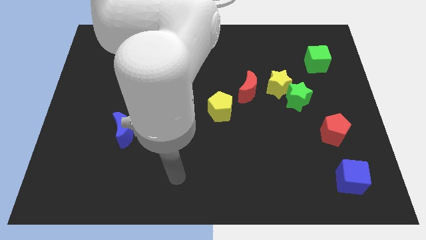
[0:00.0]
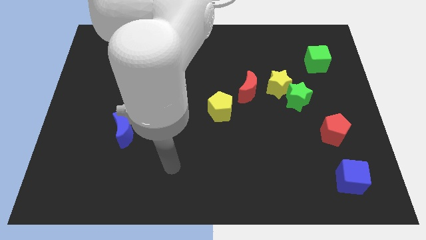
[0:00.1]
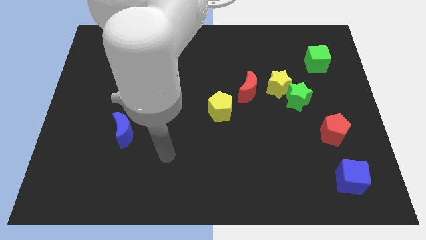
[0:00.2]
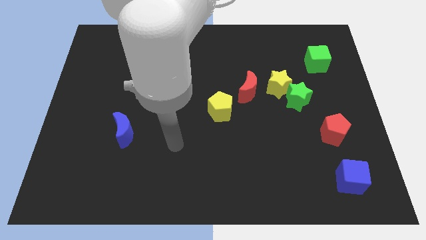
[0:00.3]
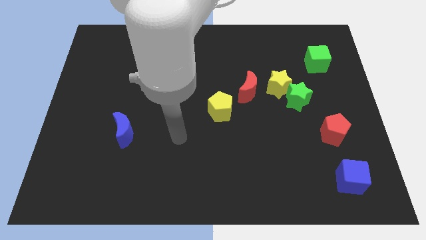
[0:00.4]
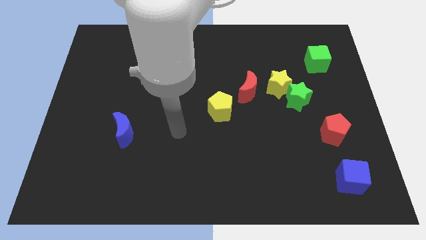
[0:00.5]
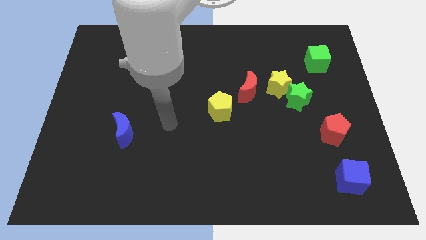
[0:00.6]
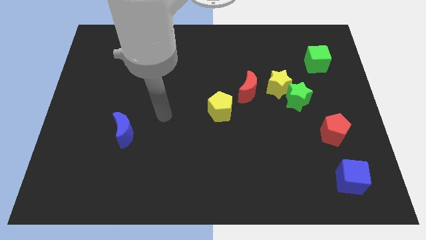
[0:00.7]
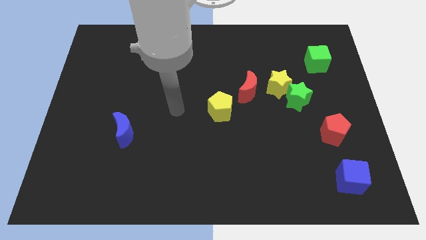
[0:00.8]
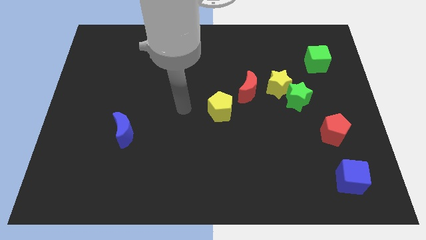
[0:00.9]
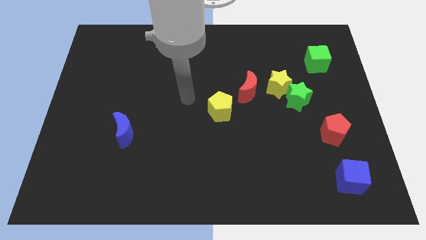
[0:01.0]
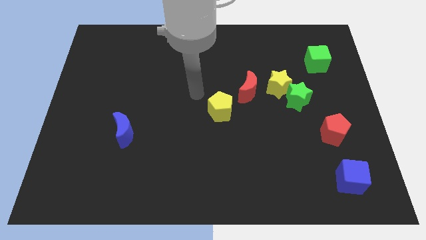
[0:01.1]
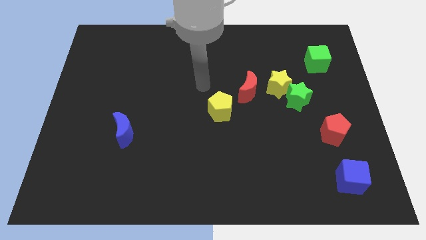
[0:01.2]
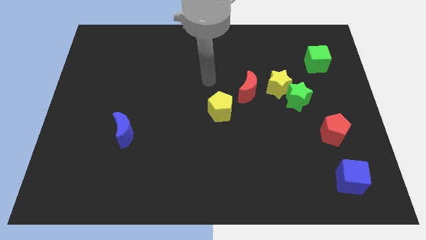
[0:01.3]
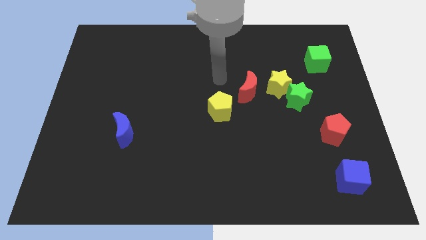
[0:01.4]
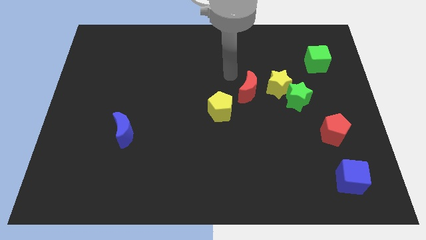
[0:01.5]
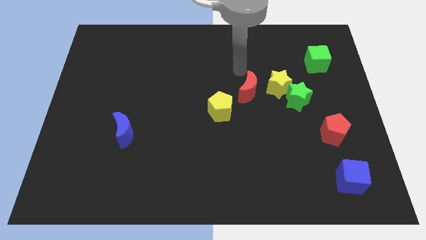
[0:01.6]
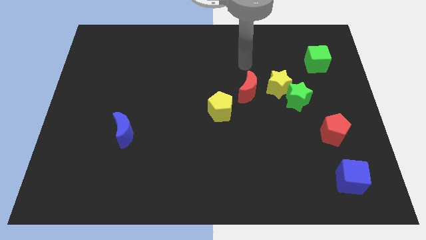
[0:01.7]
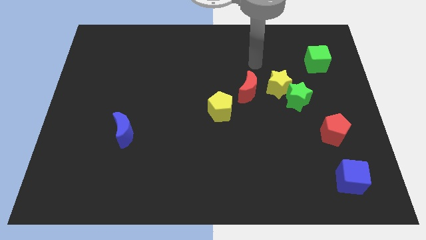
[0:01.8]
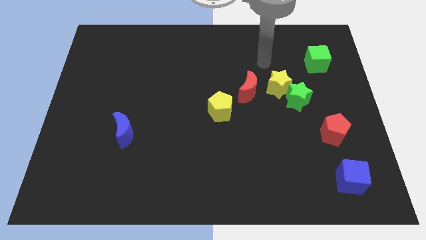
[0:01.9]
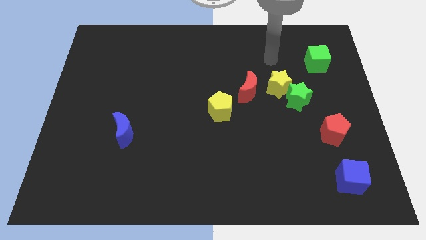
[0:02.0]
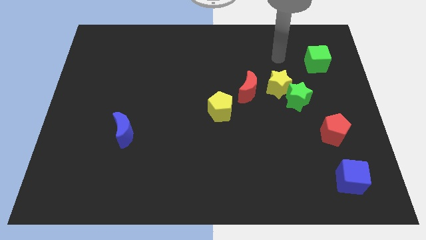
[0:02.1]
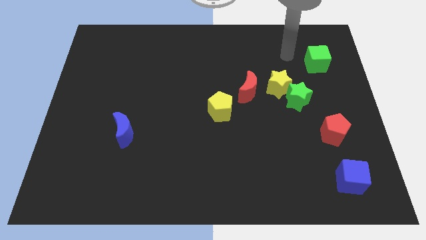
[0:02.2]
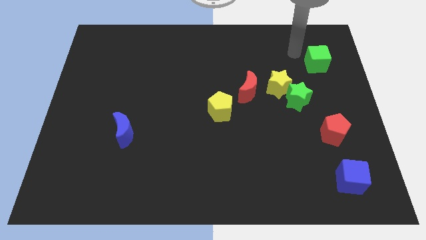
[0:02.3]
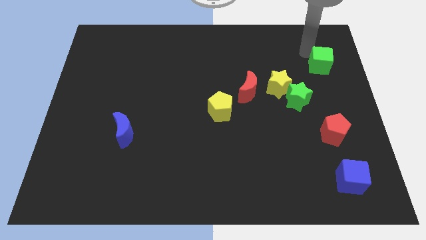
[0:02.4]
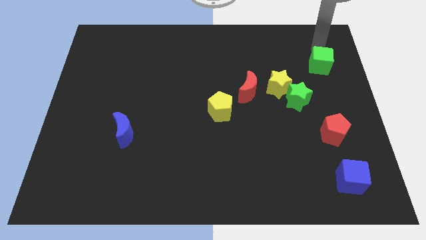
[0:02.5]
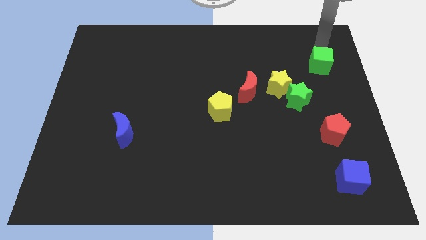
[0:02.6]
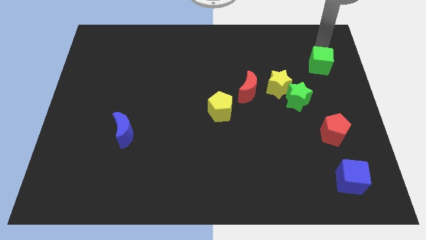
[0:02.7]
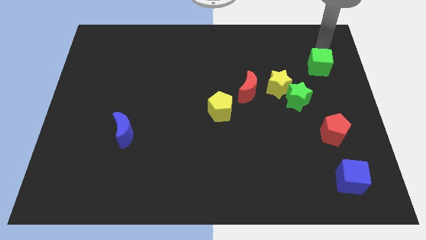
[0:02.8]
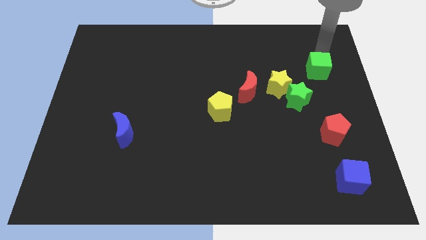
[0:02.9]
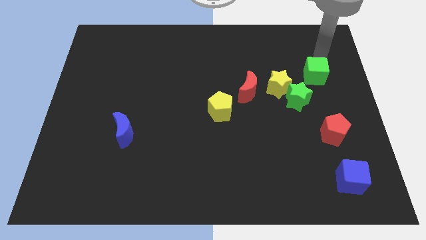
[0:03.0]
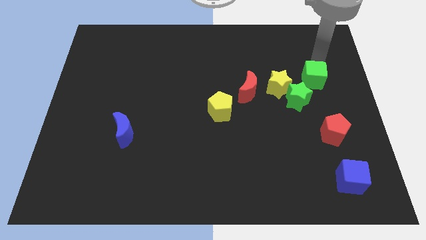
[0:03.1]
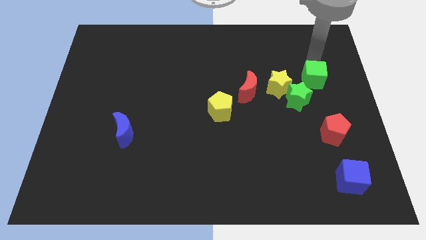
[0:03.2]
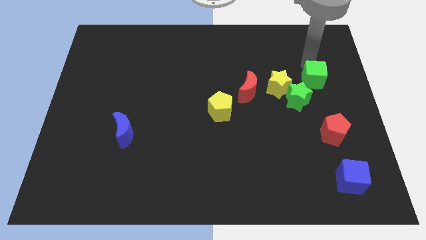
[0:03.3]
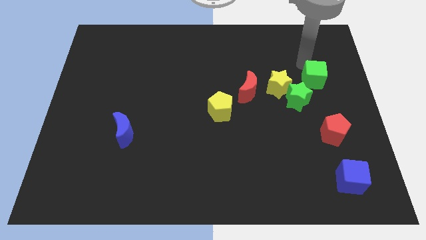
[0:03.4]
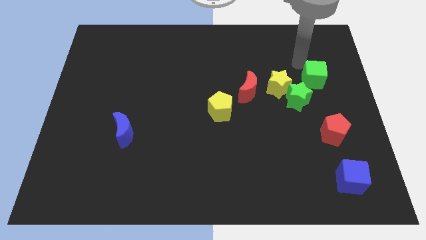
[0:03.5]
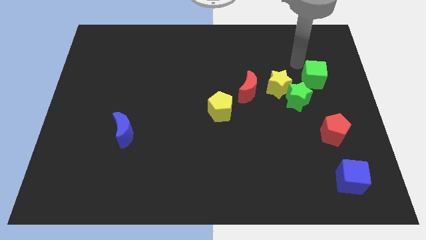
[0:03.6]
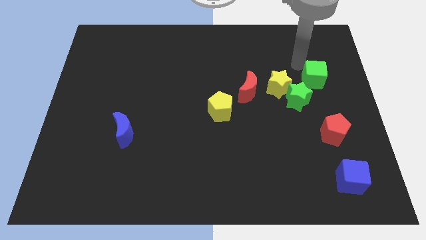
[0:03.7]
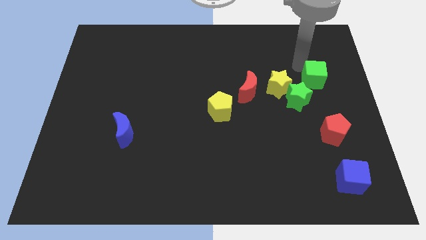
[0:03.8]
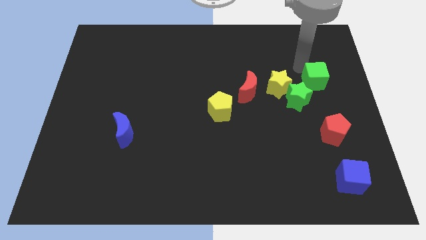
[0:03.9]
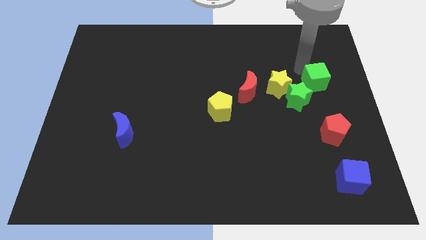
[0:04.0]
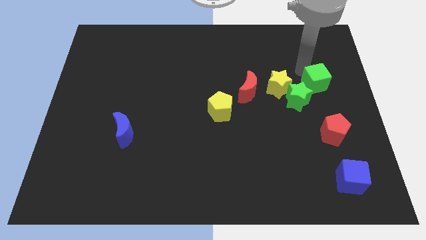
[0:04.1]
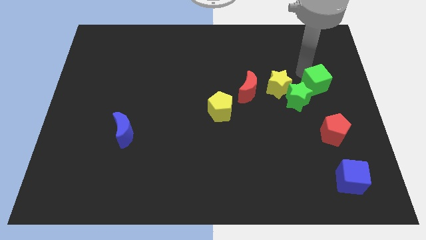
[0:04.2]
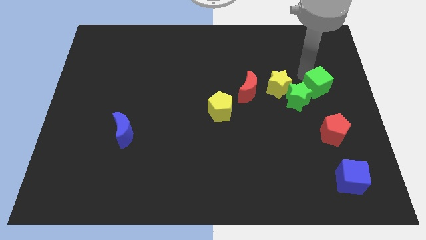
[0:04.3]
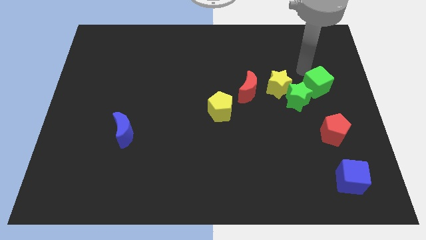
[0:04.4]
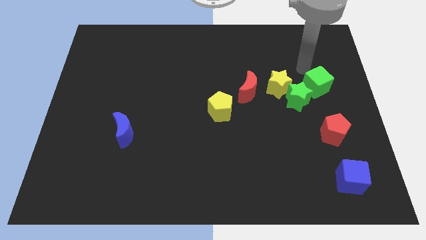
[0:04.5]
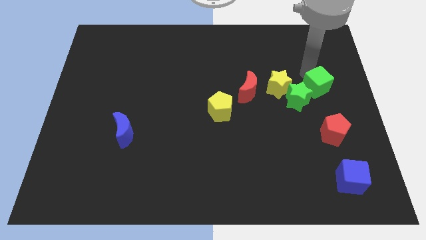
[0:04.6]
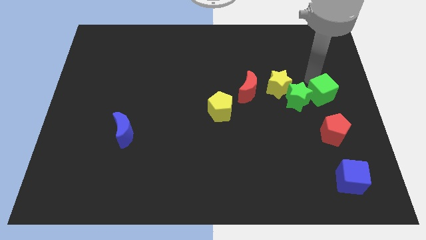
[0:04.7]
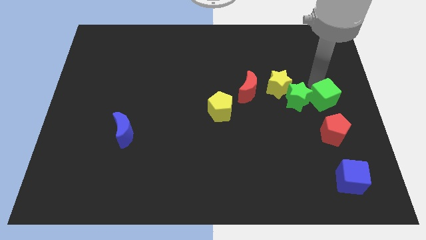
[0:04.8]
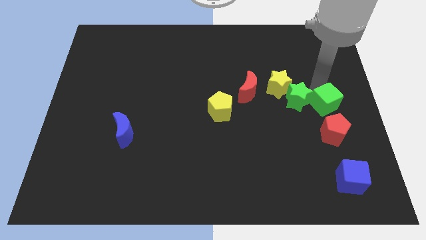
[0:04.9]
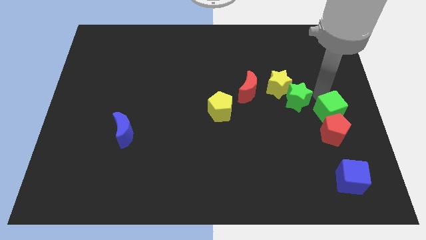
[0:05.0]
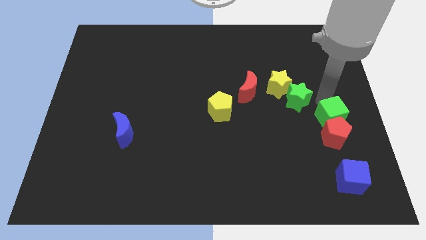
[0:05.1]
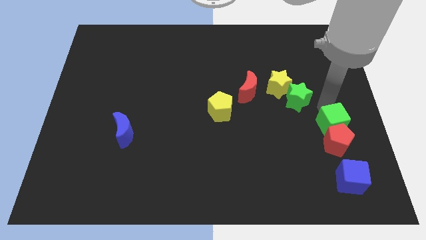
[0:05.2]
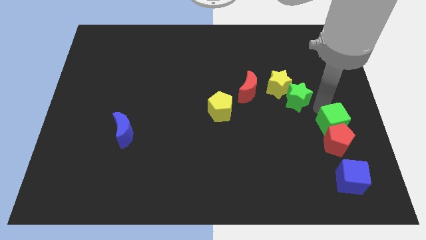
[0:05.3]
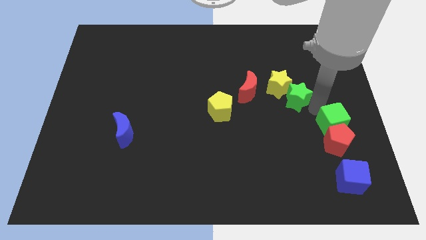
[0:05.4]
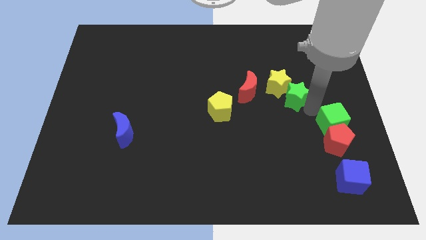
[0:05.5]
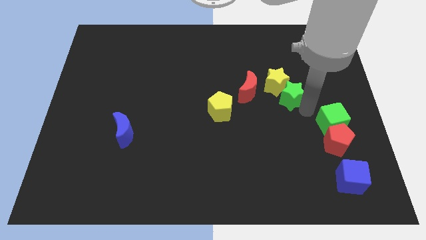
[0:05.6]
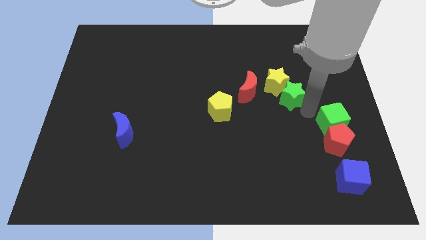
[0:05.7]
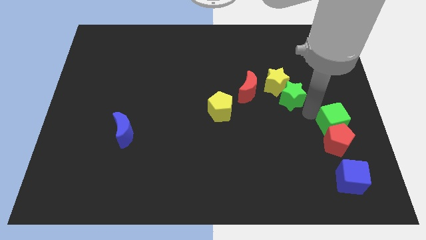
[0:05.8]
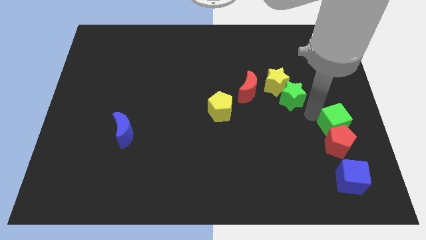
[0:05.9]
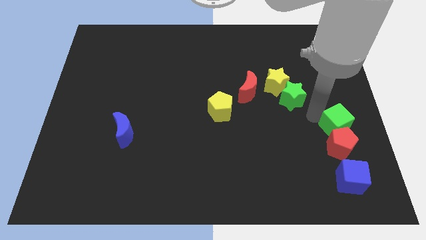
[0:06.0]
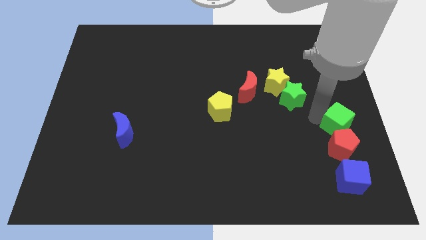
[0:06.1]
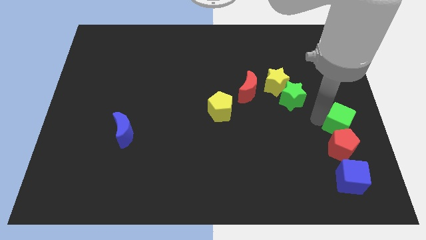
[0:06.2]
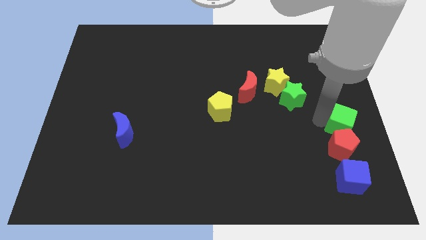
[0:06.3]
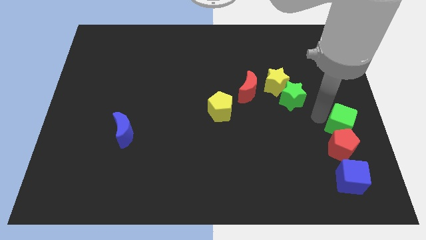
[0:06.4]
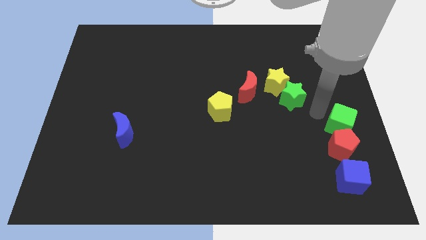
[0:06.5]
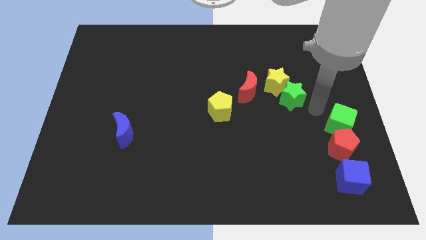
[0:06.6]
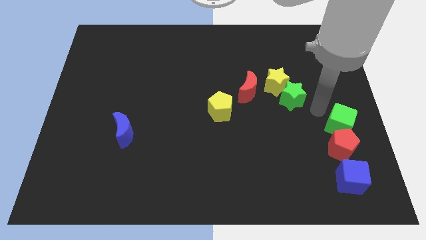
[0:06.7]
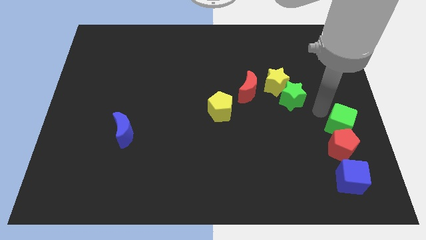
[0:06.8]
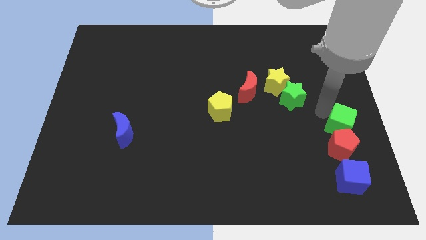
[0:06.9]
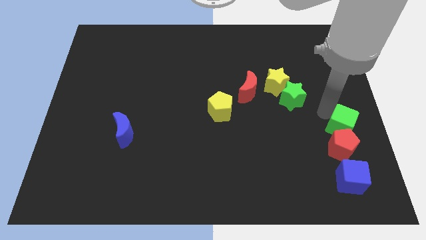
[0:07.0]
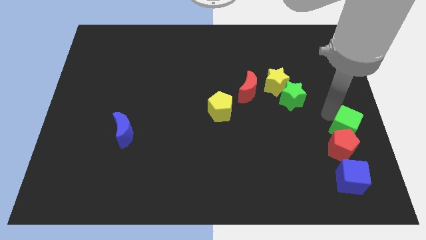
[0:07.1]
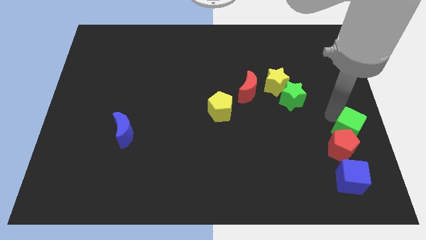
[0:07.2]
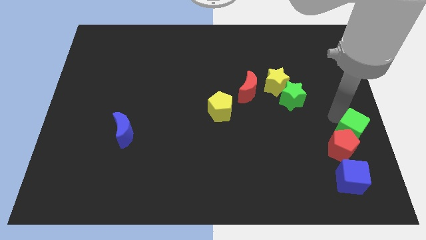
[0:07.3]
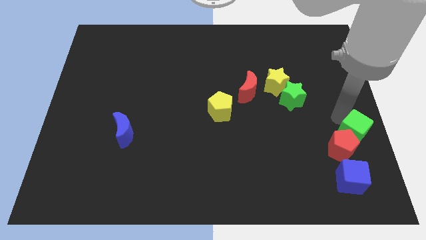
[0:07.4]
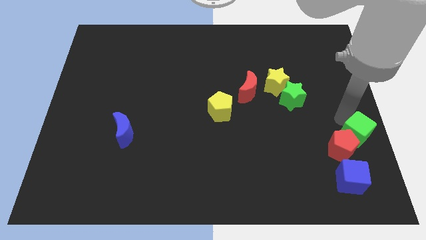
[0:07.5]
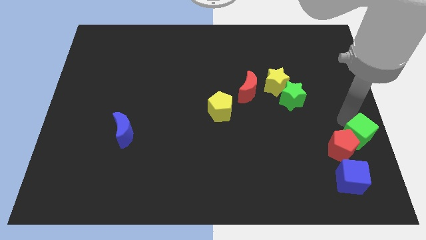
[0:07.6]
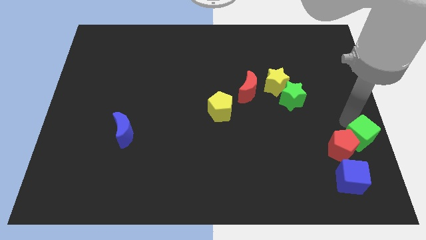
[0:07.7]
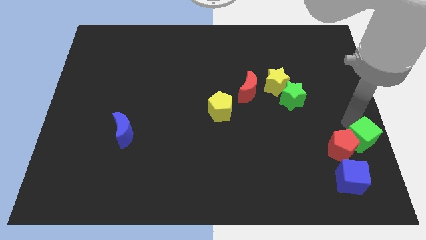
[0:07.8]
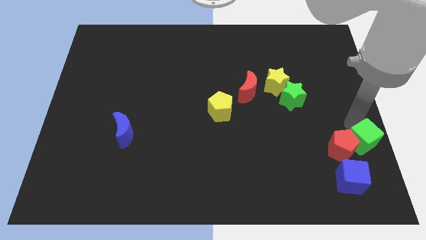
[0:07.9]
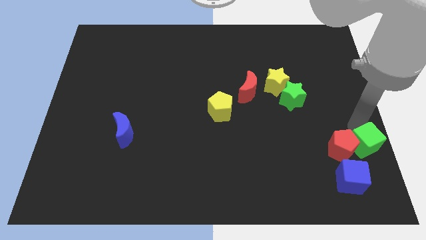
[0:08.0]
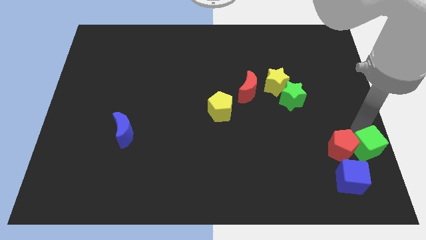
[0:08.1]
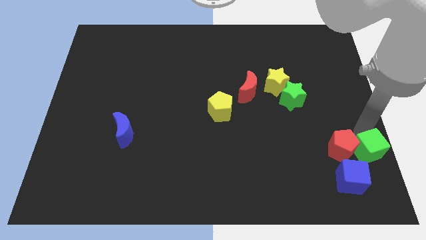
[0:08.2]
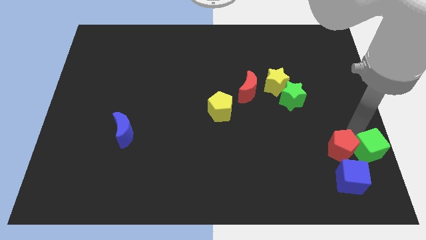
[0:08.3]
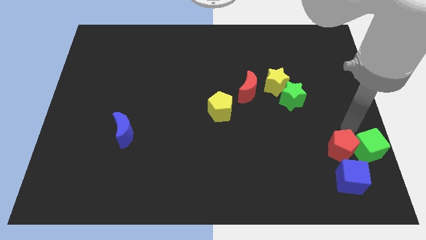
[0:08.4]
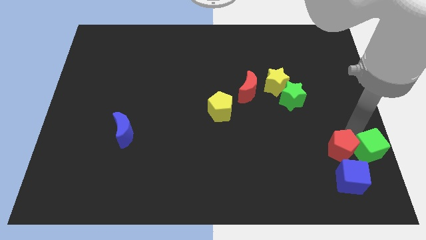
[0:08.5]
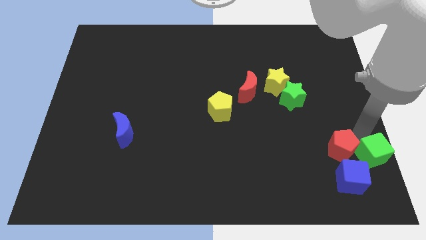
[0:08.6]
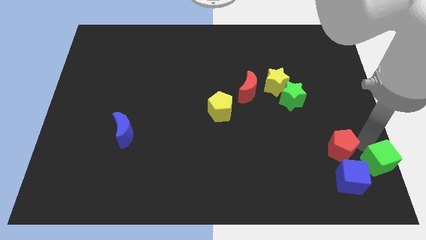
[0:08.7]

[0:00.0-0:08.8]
put the green cube to the bottom right of the board
